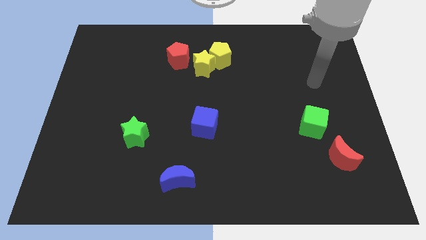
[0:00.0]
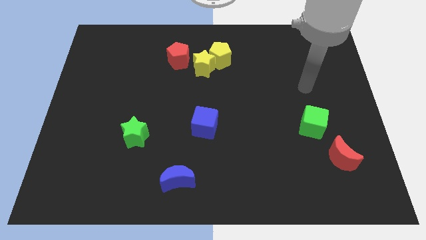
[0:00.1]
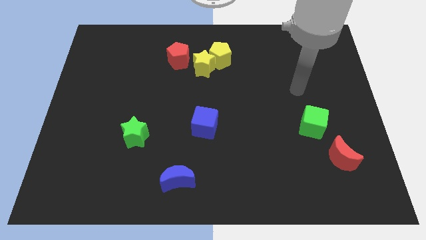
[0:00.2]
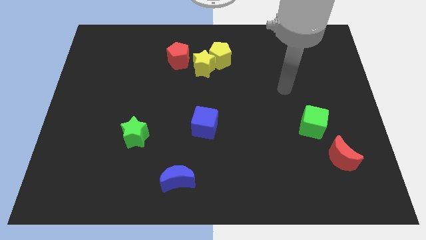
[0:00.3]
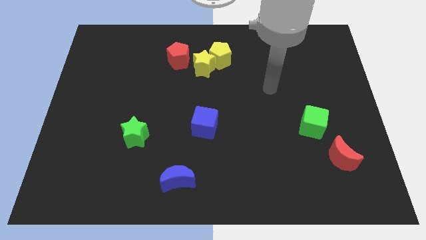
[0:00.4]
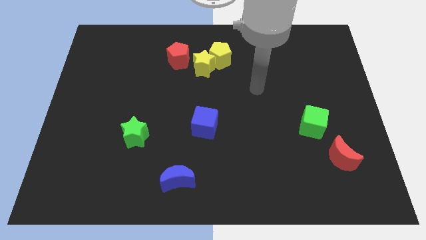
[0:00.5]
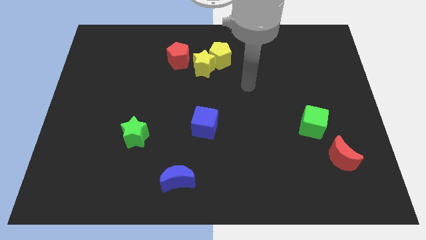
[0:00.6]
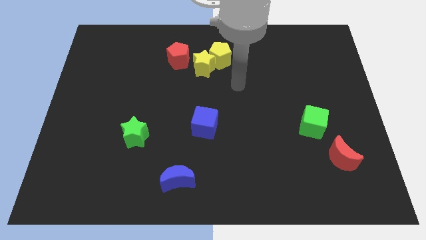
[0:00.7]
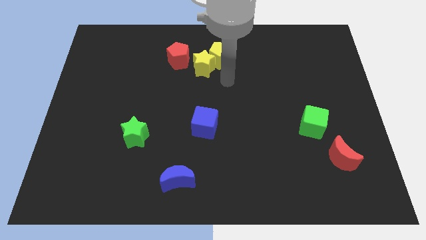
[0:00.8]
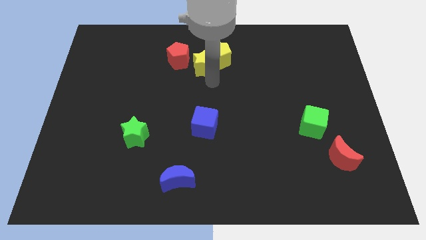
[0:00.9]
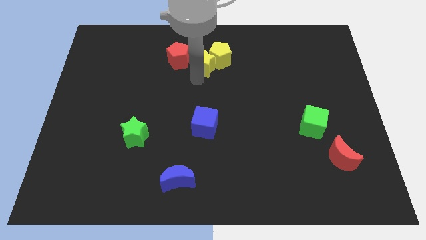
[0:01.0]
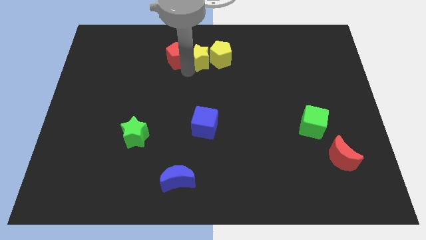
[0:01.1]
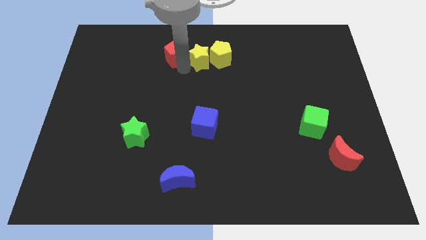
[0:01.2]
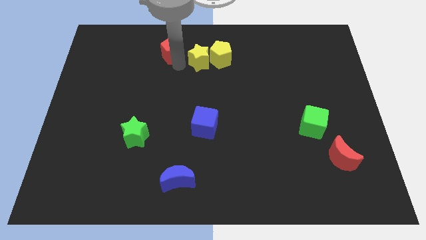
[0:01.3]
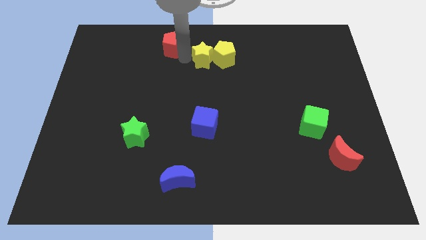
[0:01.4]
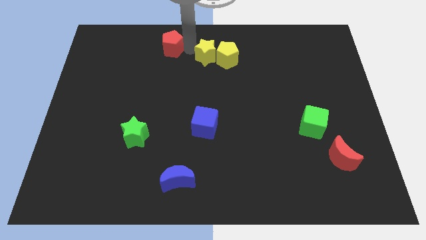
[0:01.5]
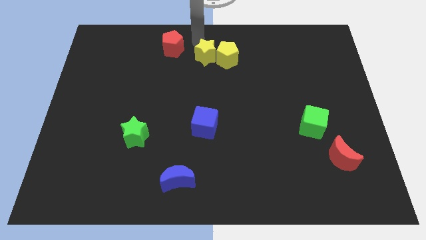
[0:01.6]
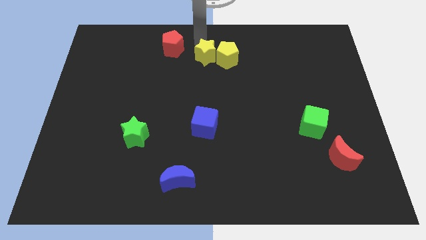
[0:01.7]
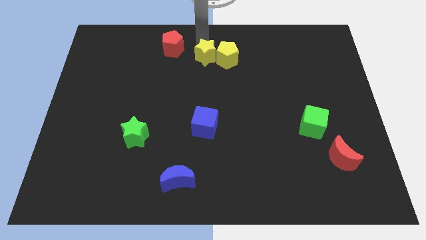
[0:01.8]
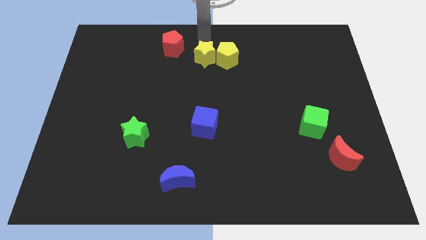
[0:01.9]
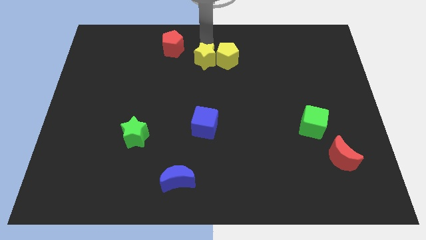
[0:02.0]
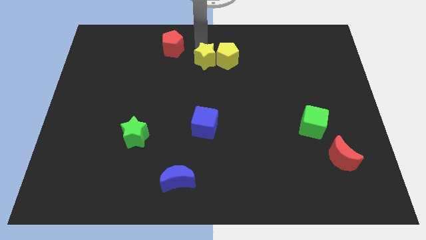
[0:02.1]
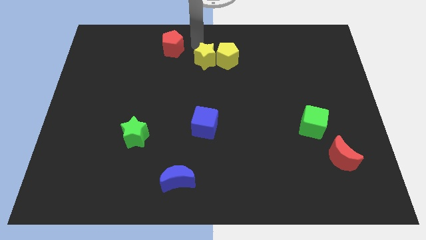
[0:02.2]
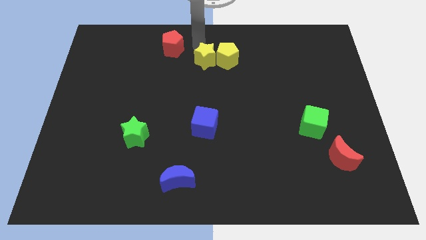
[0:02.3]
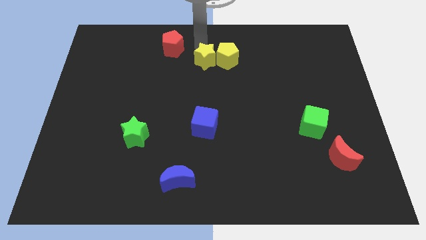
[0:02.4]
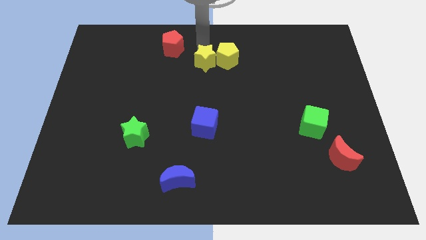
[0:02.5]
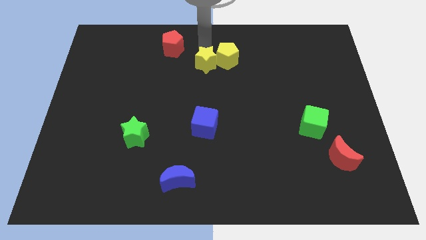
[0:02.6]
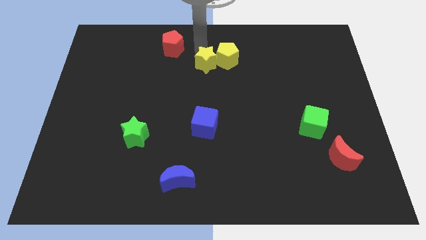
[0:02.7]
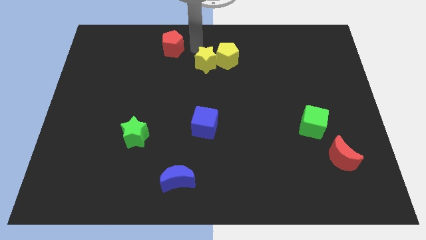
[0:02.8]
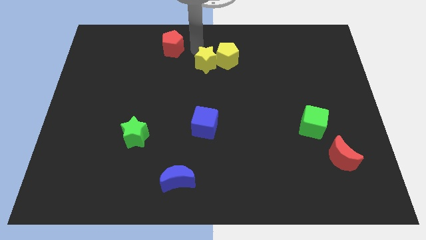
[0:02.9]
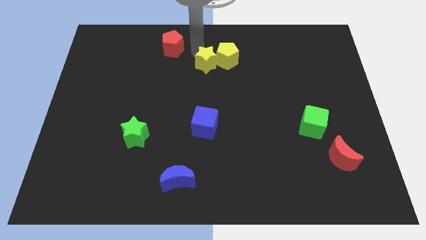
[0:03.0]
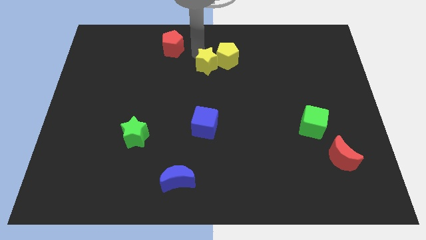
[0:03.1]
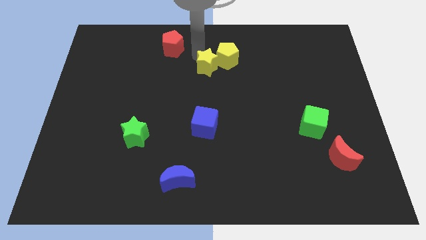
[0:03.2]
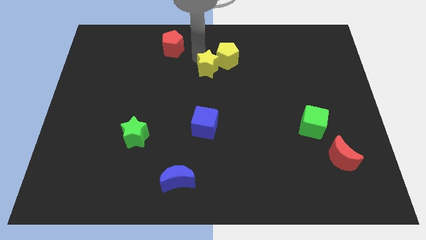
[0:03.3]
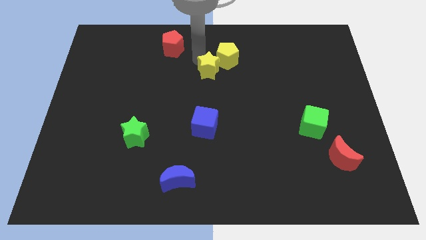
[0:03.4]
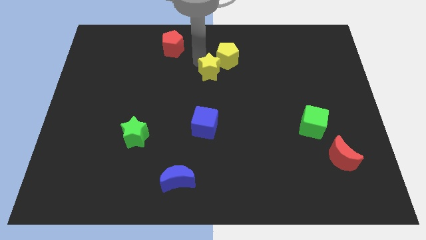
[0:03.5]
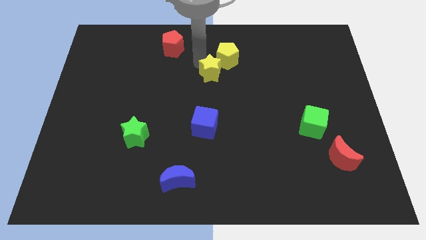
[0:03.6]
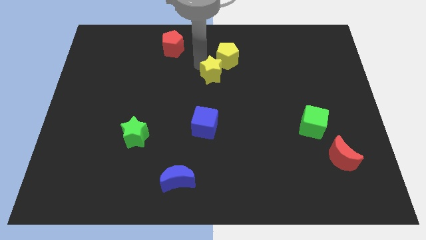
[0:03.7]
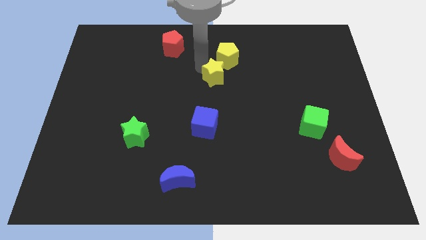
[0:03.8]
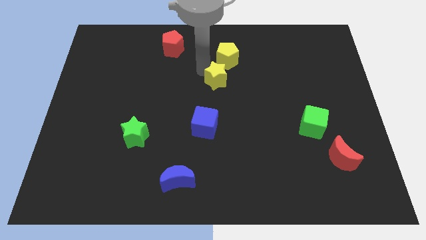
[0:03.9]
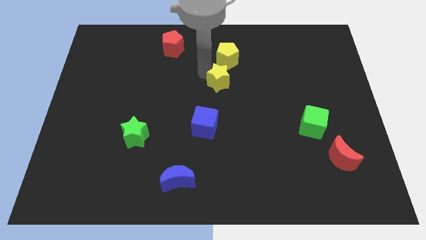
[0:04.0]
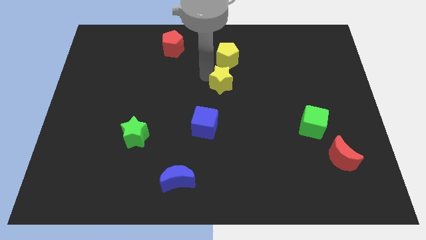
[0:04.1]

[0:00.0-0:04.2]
slide the yellow star a bit downwards and right

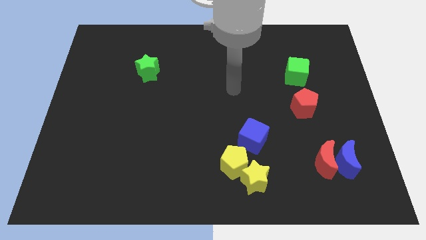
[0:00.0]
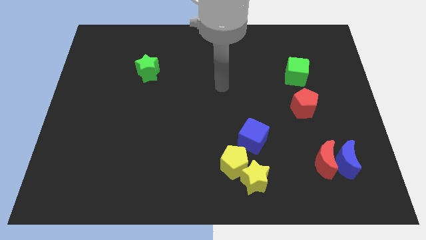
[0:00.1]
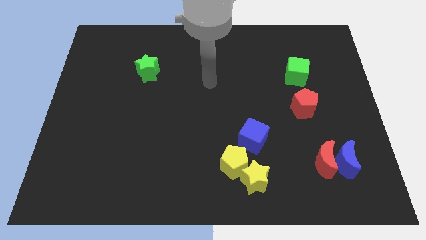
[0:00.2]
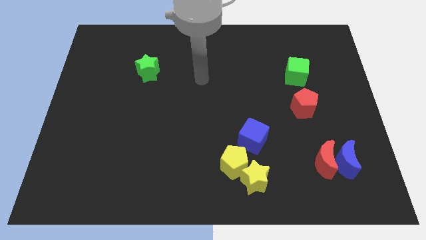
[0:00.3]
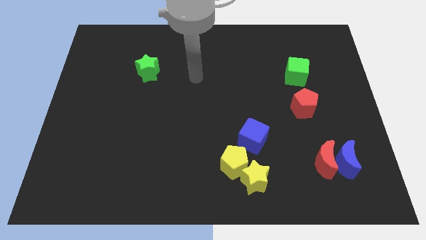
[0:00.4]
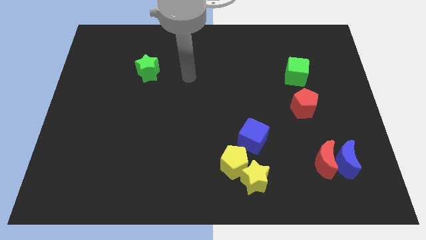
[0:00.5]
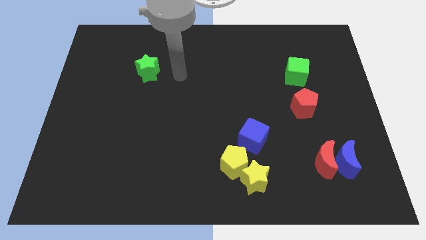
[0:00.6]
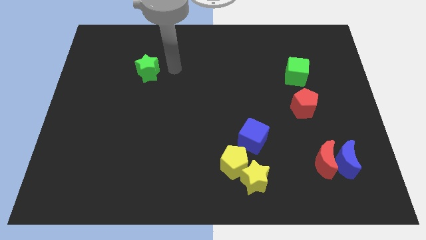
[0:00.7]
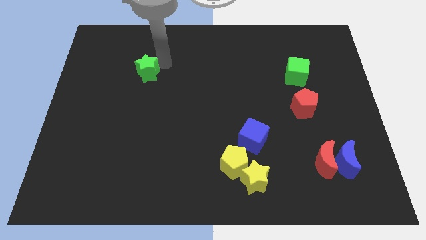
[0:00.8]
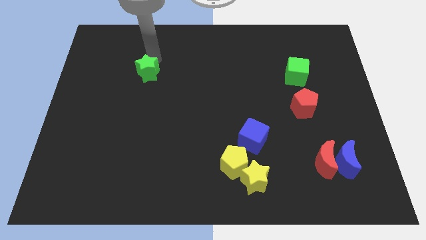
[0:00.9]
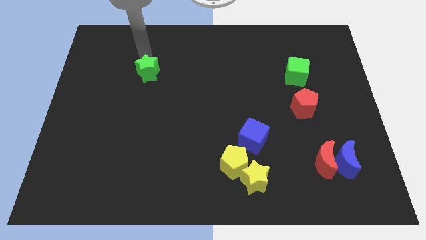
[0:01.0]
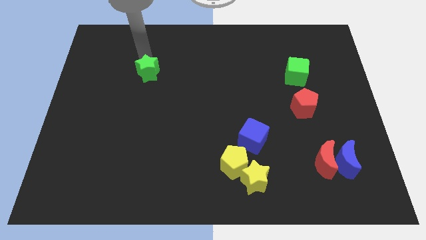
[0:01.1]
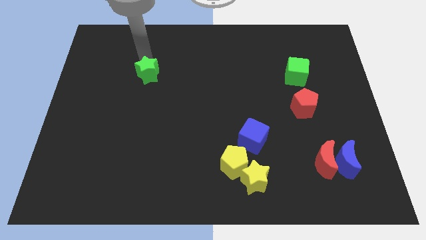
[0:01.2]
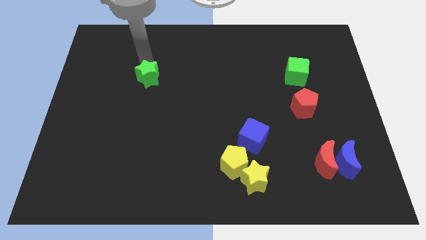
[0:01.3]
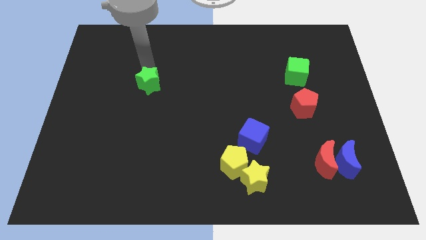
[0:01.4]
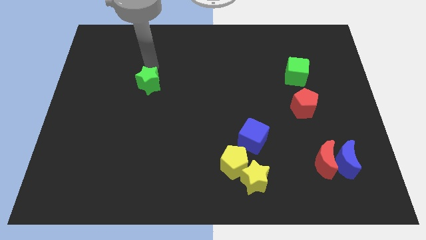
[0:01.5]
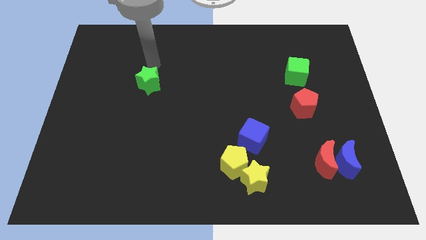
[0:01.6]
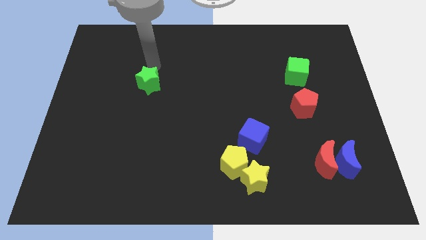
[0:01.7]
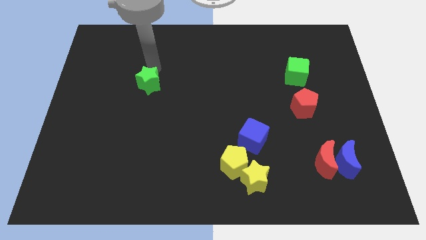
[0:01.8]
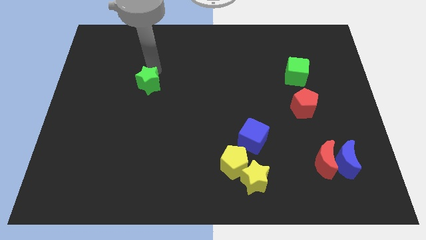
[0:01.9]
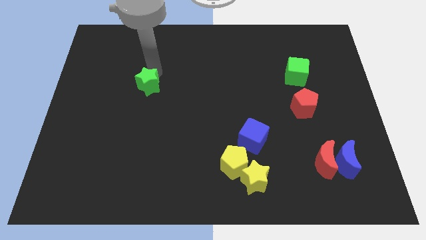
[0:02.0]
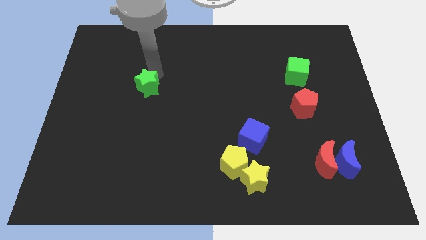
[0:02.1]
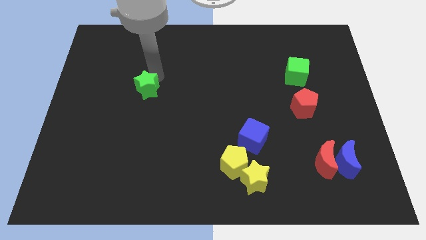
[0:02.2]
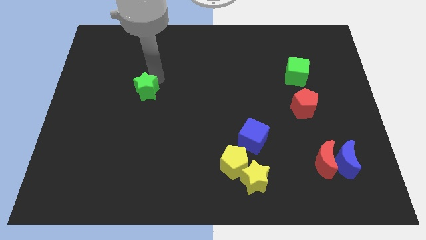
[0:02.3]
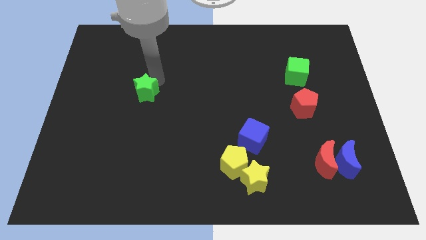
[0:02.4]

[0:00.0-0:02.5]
slide the green star a little downwards

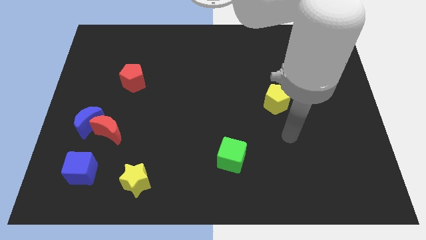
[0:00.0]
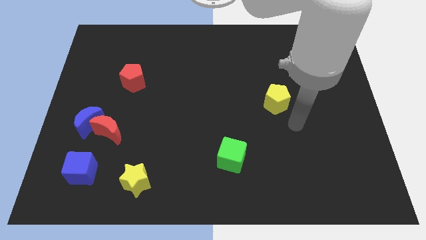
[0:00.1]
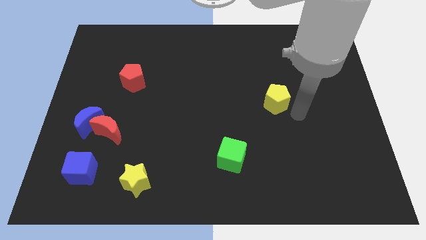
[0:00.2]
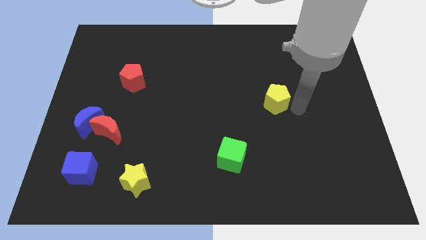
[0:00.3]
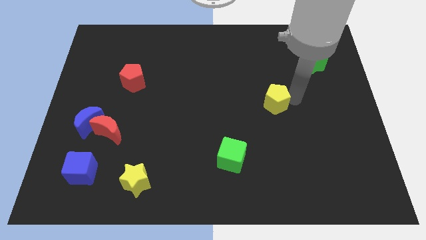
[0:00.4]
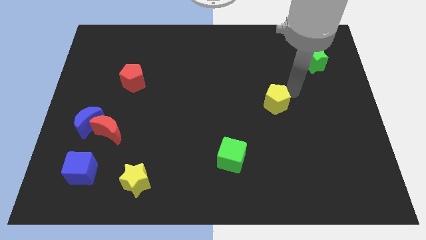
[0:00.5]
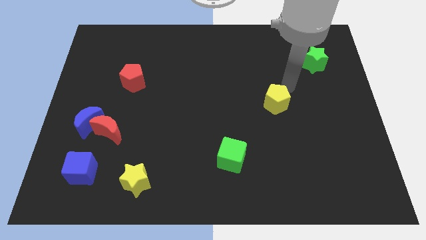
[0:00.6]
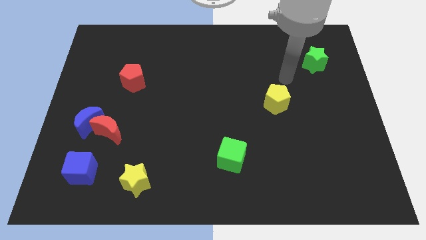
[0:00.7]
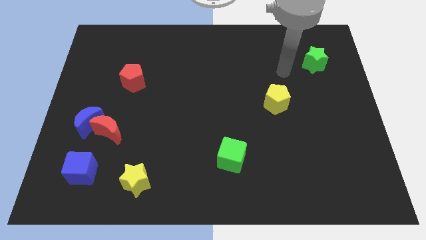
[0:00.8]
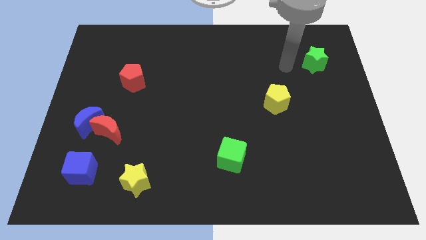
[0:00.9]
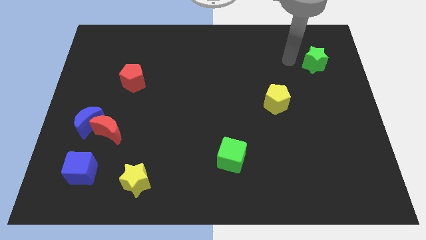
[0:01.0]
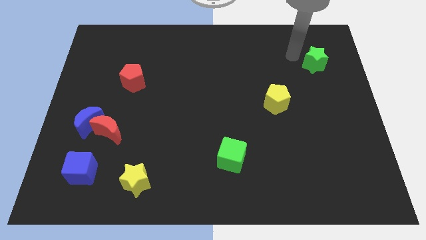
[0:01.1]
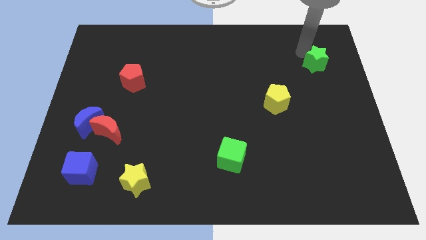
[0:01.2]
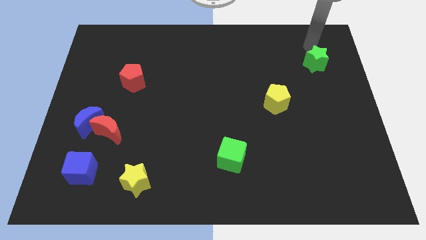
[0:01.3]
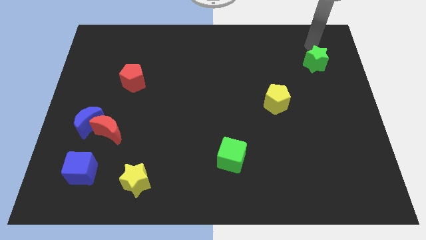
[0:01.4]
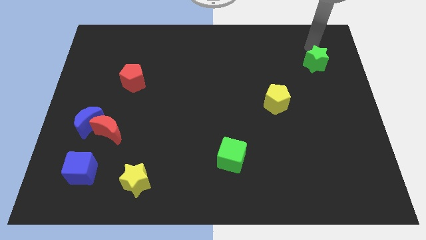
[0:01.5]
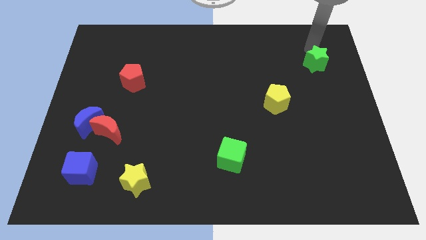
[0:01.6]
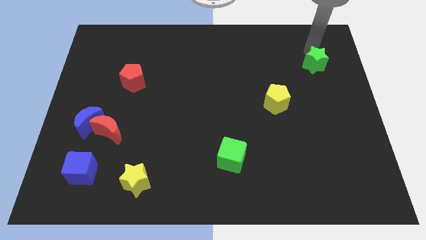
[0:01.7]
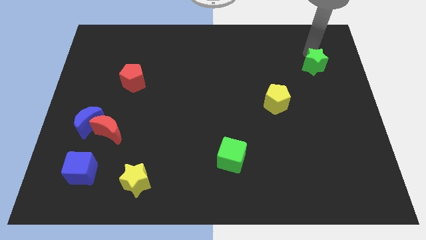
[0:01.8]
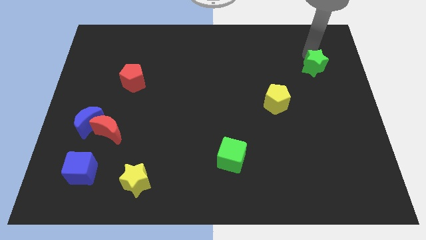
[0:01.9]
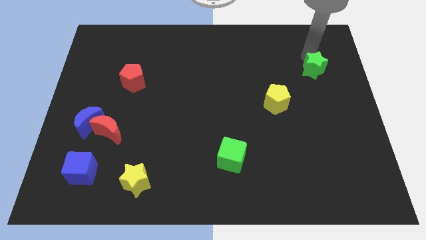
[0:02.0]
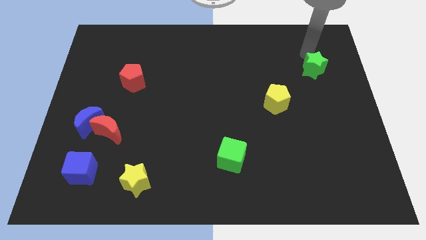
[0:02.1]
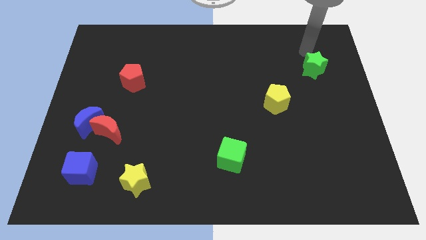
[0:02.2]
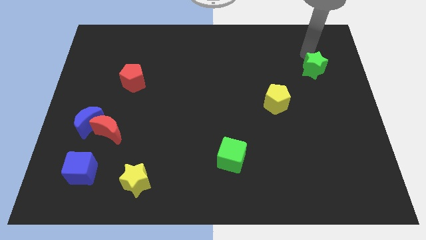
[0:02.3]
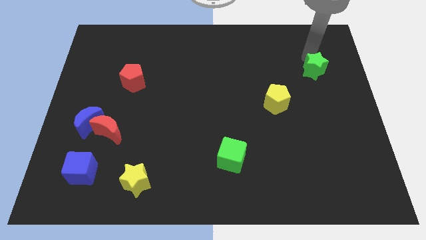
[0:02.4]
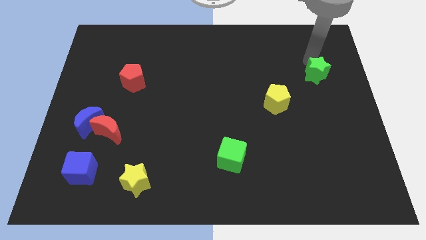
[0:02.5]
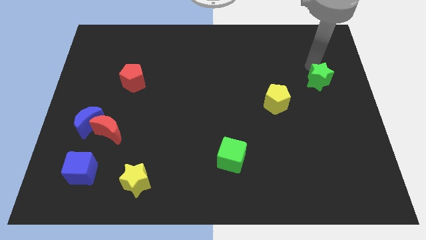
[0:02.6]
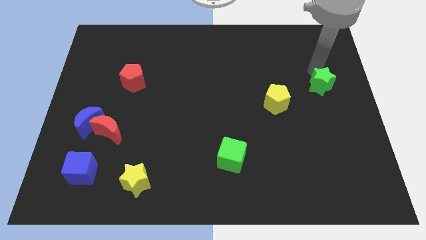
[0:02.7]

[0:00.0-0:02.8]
slightly slide the green star downwards
